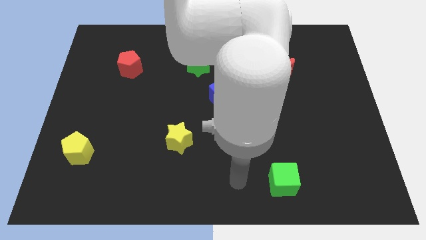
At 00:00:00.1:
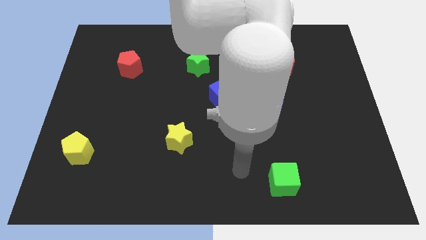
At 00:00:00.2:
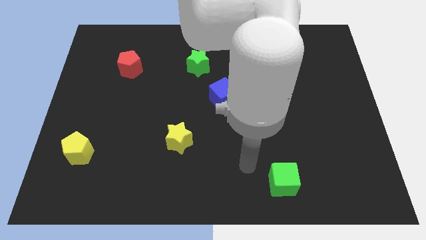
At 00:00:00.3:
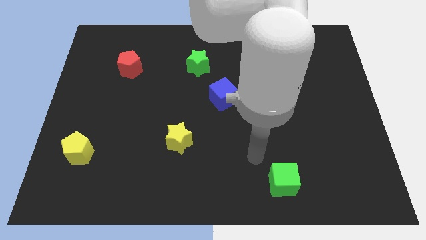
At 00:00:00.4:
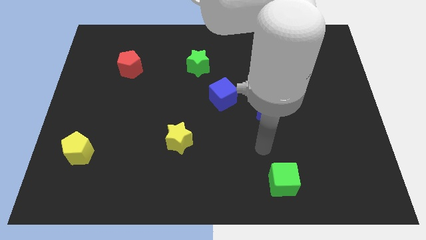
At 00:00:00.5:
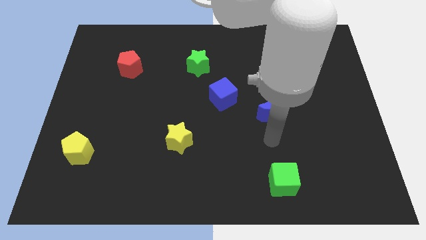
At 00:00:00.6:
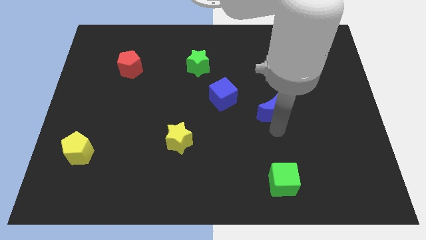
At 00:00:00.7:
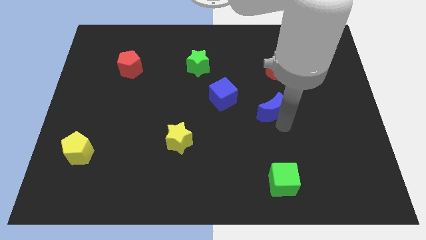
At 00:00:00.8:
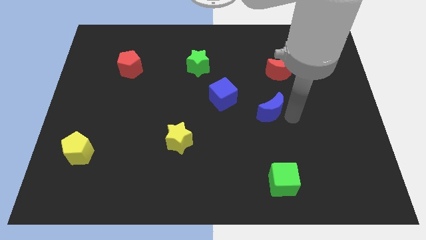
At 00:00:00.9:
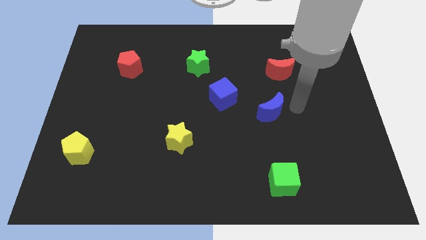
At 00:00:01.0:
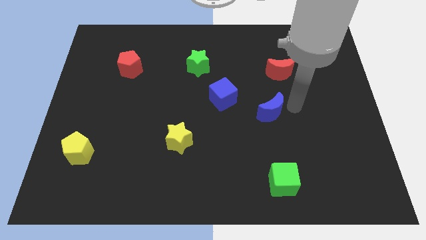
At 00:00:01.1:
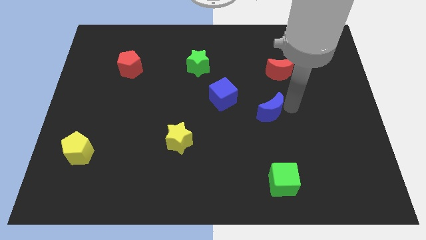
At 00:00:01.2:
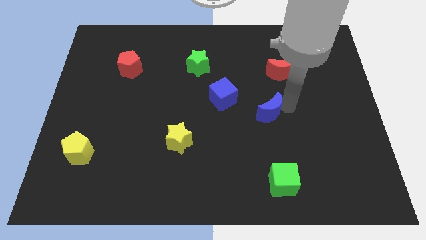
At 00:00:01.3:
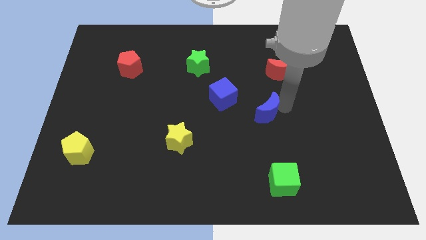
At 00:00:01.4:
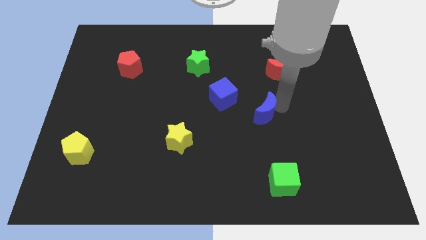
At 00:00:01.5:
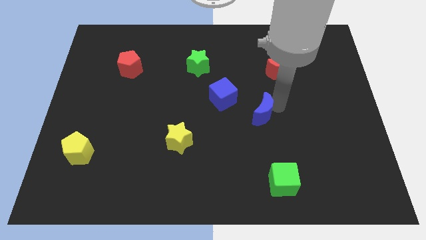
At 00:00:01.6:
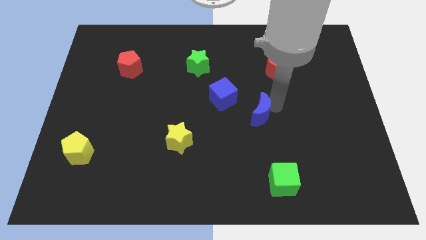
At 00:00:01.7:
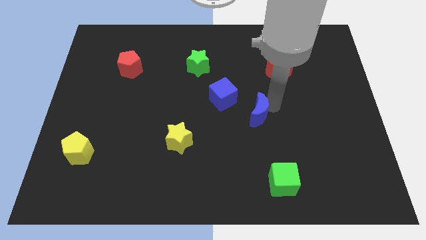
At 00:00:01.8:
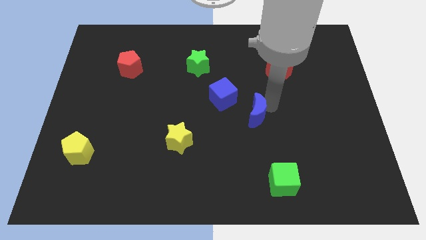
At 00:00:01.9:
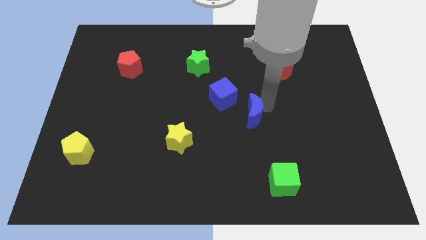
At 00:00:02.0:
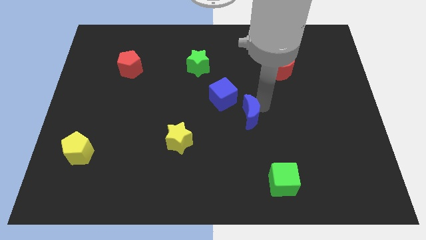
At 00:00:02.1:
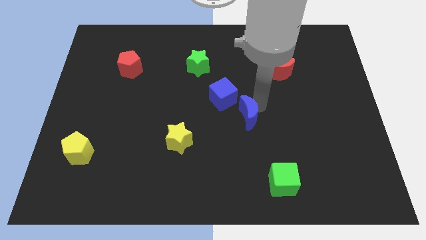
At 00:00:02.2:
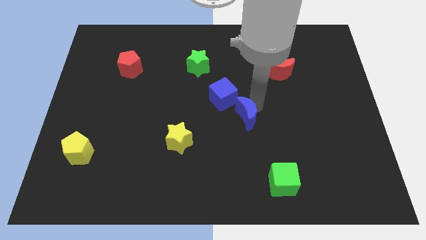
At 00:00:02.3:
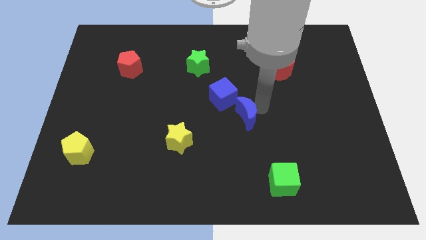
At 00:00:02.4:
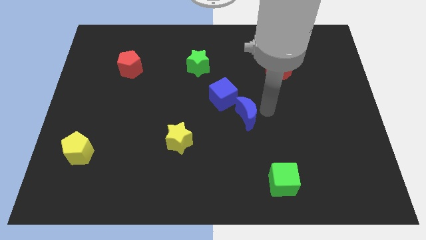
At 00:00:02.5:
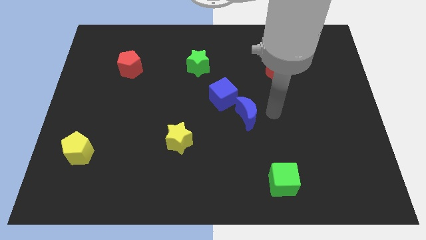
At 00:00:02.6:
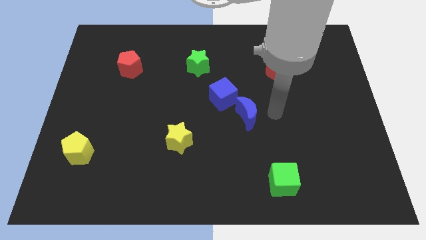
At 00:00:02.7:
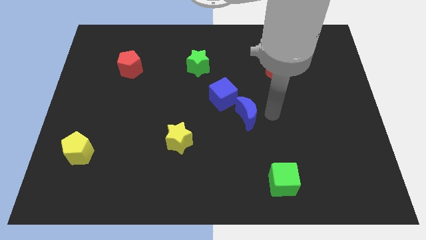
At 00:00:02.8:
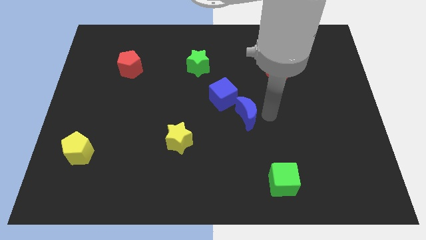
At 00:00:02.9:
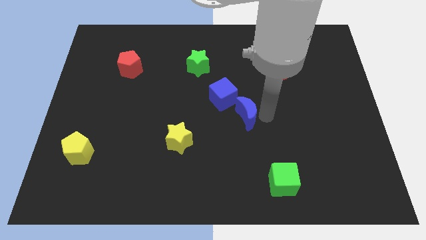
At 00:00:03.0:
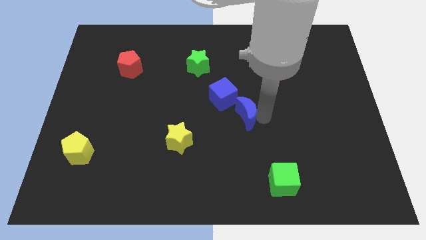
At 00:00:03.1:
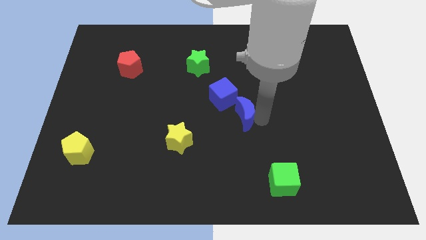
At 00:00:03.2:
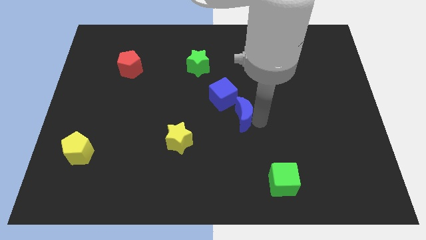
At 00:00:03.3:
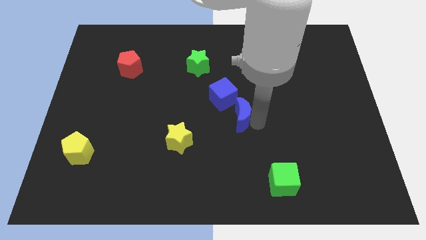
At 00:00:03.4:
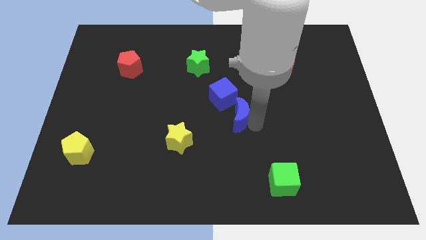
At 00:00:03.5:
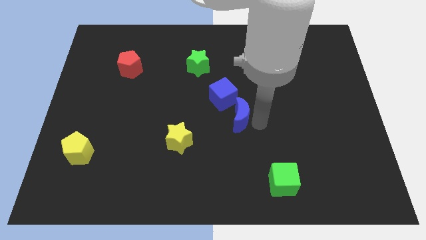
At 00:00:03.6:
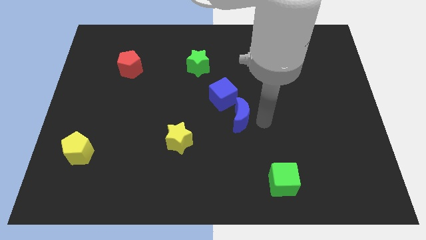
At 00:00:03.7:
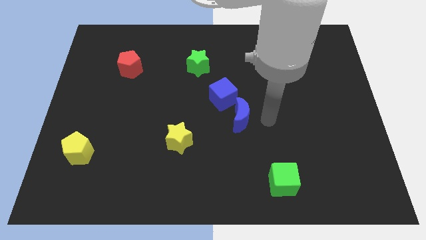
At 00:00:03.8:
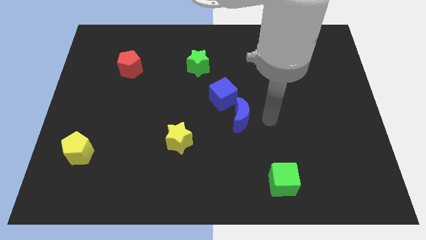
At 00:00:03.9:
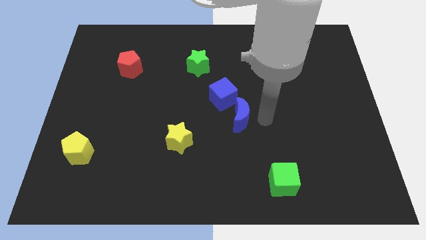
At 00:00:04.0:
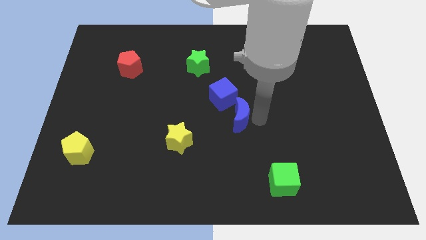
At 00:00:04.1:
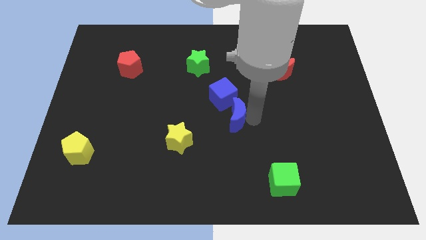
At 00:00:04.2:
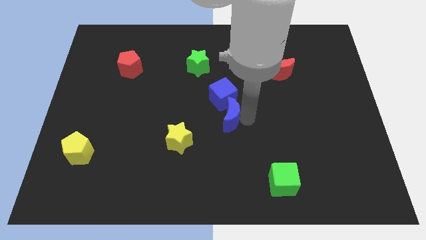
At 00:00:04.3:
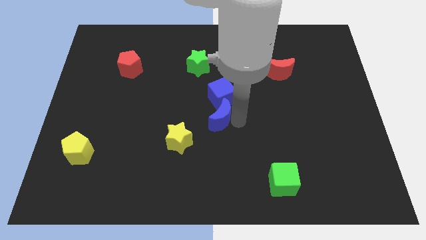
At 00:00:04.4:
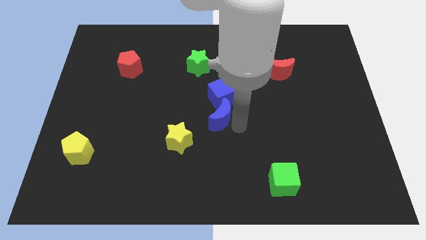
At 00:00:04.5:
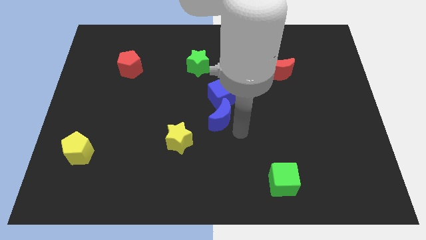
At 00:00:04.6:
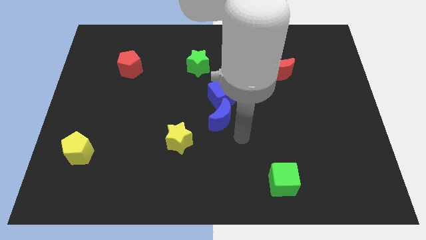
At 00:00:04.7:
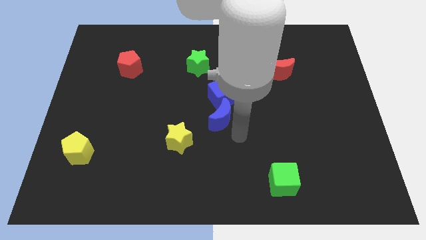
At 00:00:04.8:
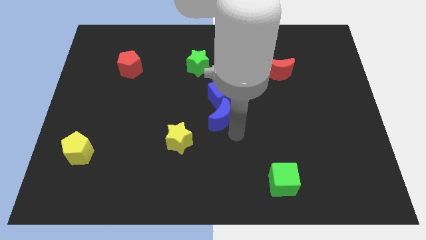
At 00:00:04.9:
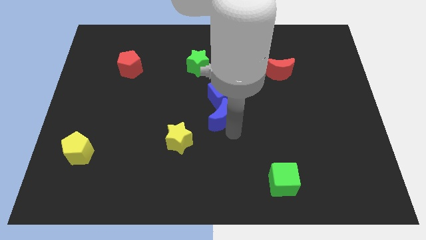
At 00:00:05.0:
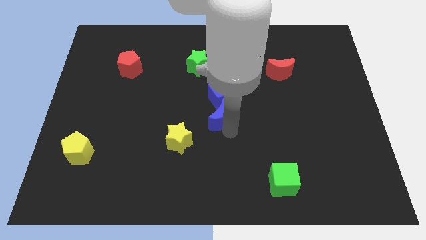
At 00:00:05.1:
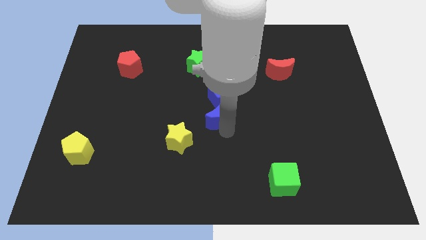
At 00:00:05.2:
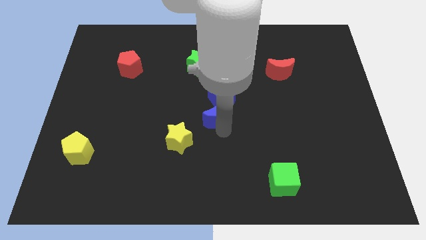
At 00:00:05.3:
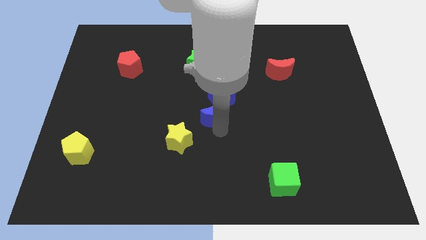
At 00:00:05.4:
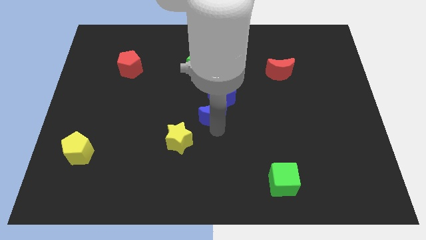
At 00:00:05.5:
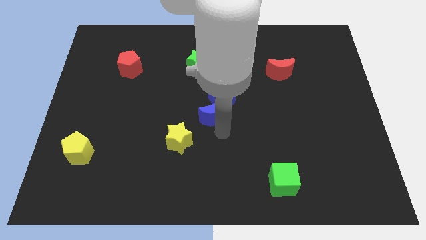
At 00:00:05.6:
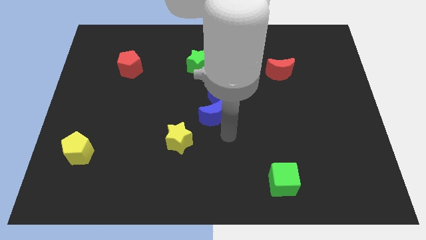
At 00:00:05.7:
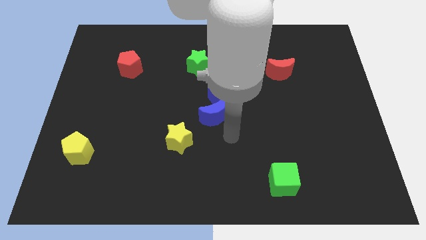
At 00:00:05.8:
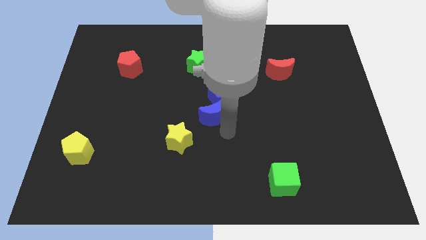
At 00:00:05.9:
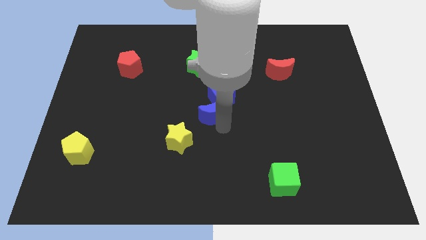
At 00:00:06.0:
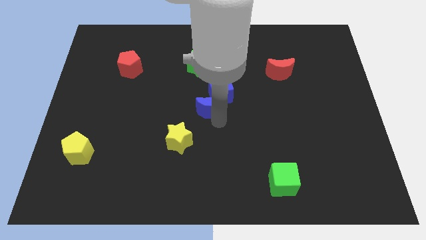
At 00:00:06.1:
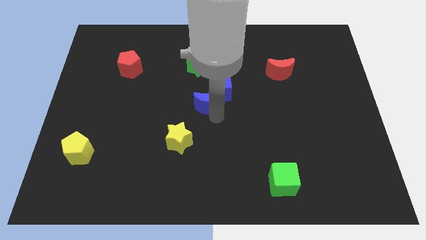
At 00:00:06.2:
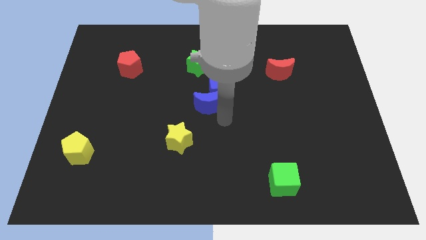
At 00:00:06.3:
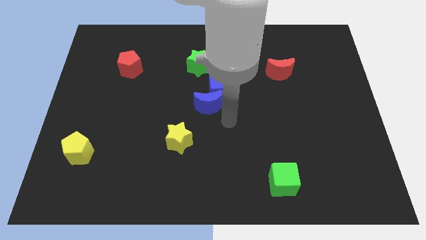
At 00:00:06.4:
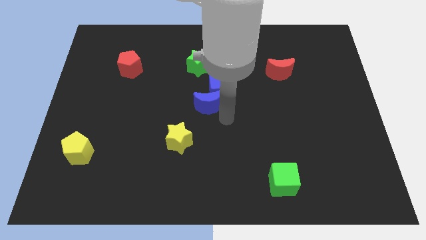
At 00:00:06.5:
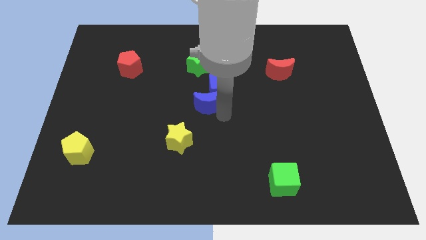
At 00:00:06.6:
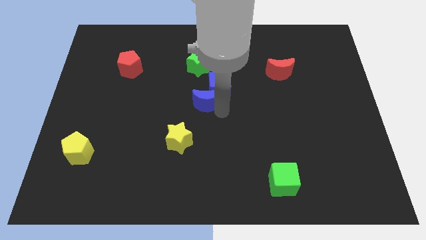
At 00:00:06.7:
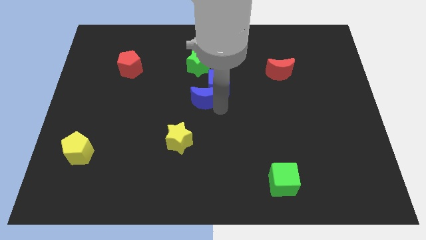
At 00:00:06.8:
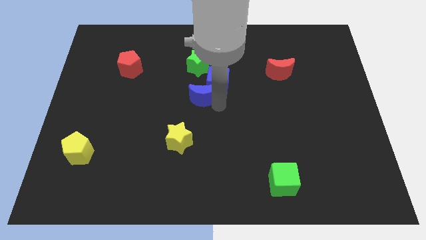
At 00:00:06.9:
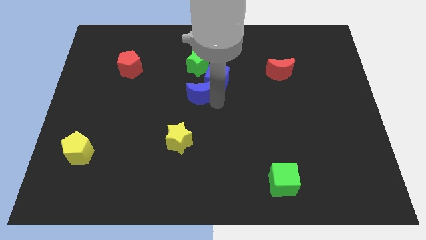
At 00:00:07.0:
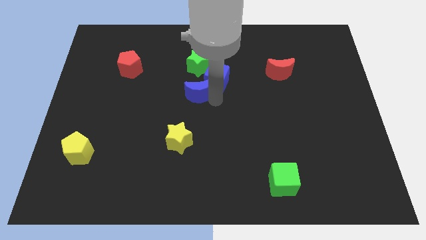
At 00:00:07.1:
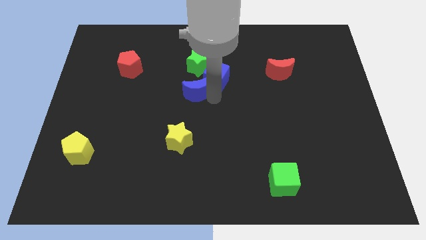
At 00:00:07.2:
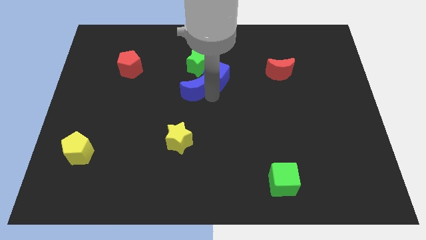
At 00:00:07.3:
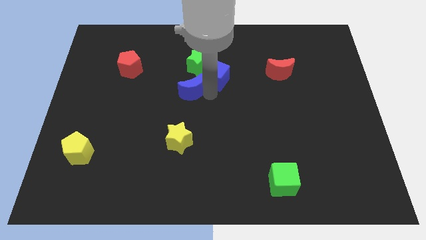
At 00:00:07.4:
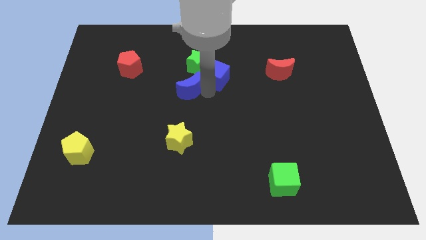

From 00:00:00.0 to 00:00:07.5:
push the blue moon diagonally down and to the left of the green star
